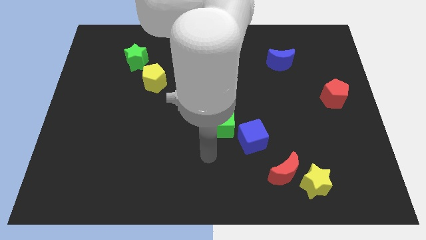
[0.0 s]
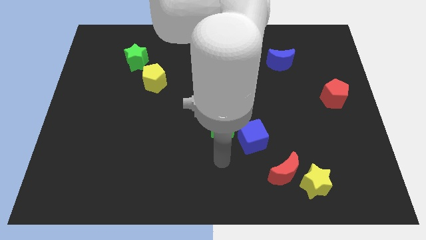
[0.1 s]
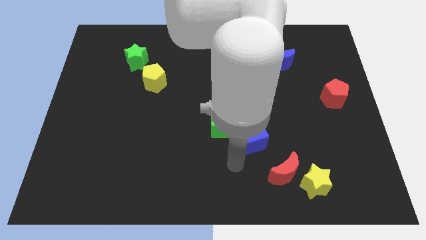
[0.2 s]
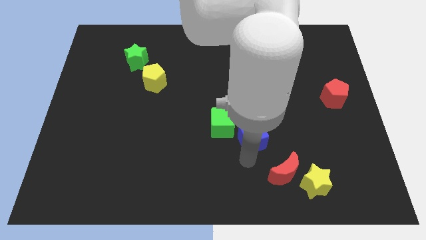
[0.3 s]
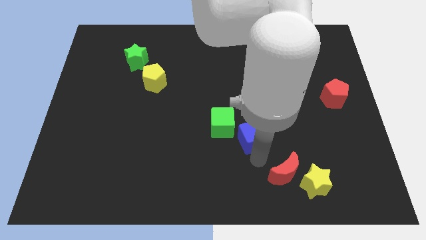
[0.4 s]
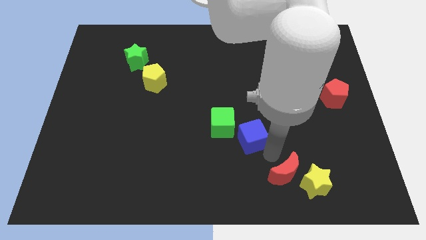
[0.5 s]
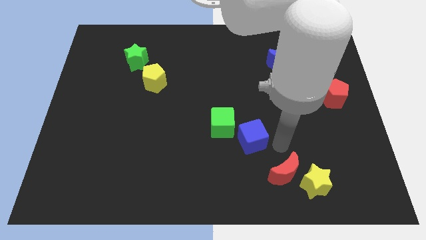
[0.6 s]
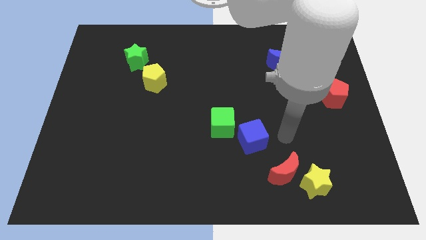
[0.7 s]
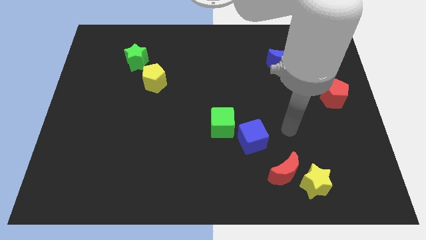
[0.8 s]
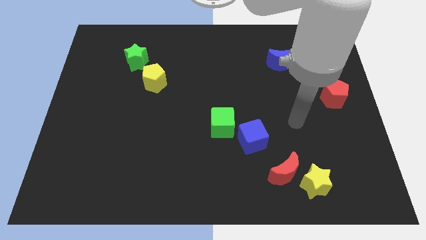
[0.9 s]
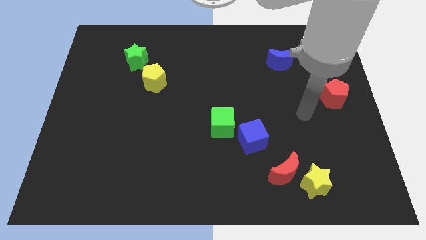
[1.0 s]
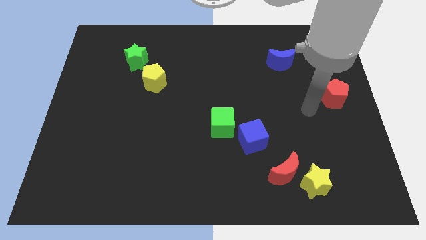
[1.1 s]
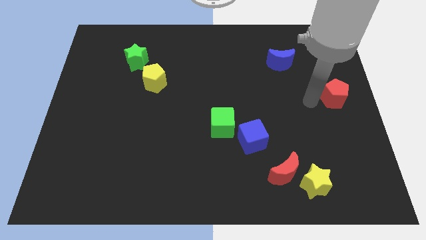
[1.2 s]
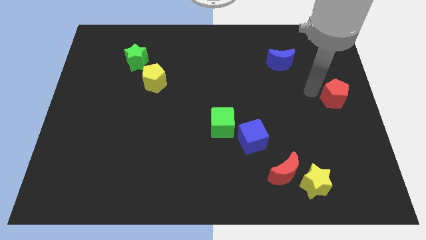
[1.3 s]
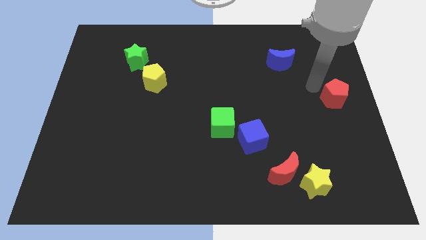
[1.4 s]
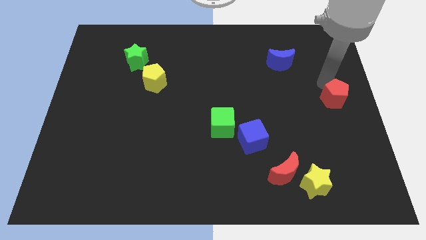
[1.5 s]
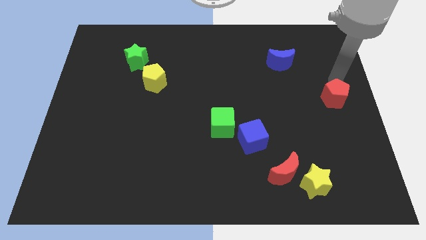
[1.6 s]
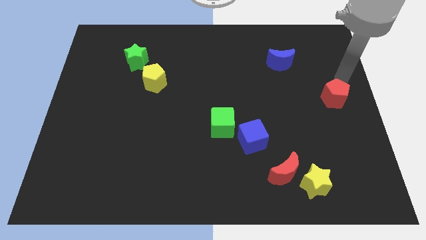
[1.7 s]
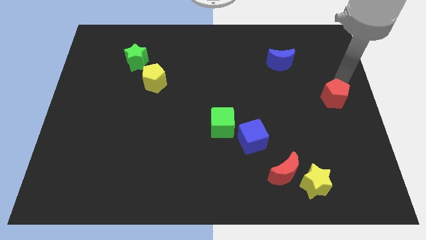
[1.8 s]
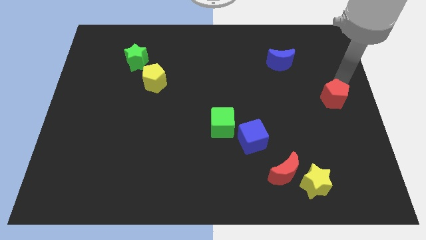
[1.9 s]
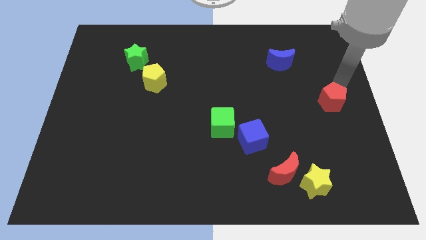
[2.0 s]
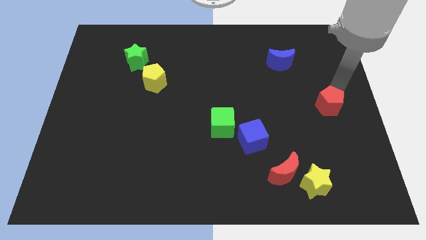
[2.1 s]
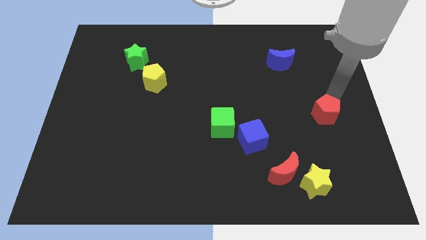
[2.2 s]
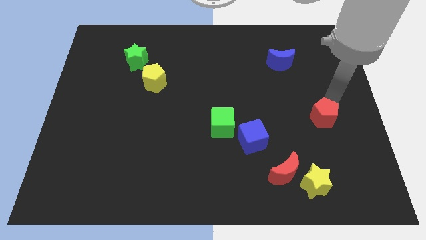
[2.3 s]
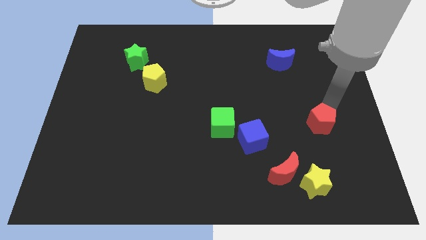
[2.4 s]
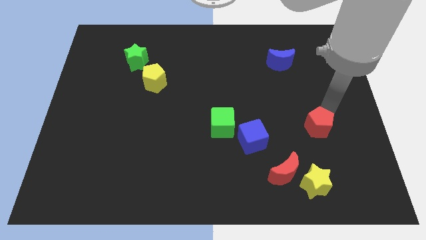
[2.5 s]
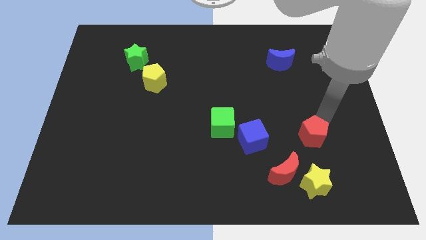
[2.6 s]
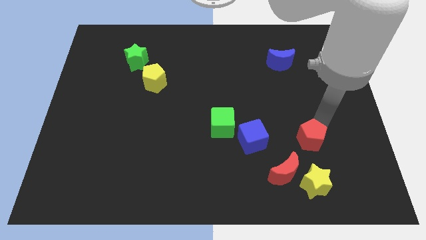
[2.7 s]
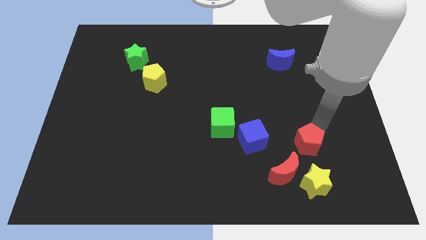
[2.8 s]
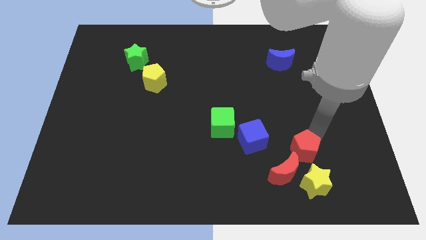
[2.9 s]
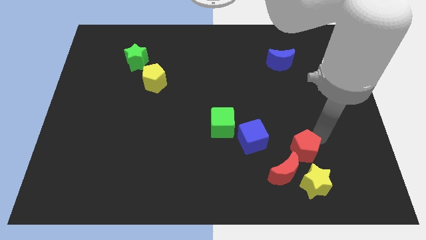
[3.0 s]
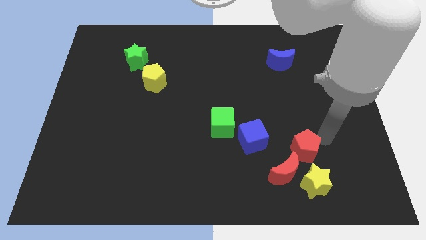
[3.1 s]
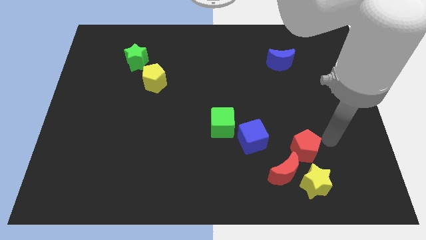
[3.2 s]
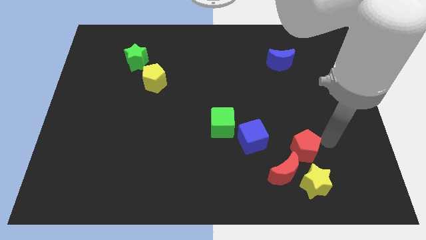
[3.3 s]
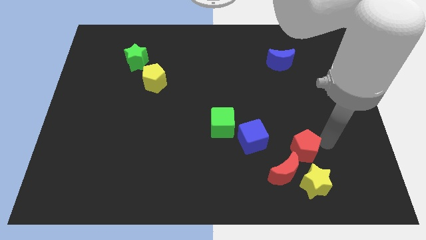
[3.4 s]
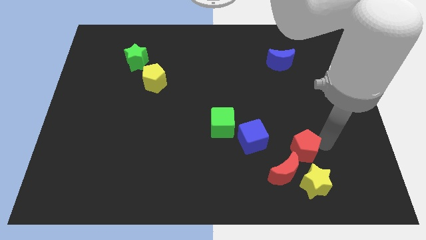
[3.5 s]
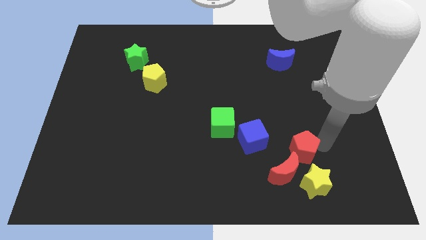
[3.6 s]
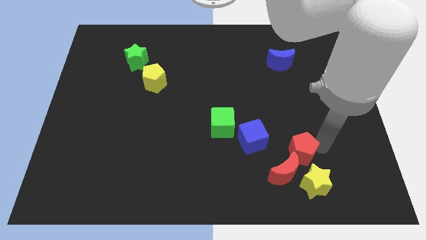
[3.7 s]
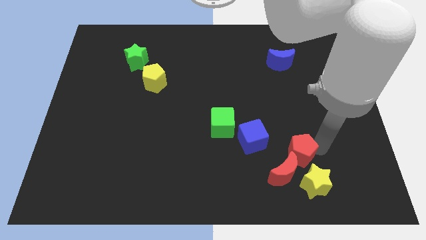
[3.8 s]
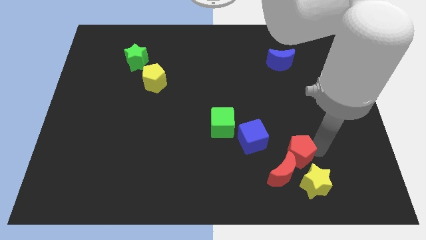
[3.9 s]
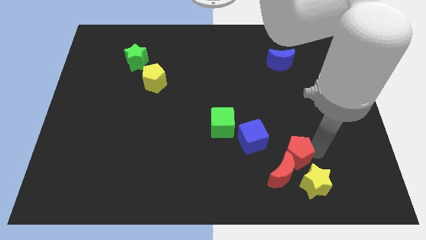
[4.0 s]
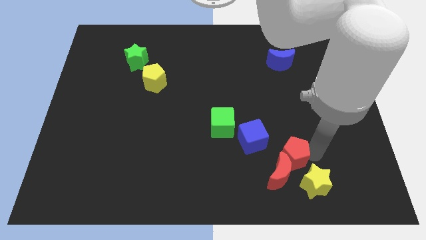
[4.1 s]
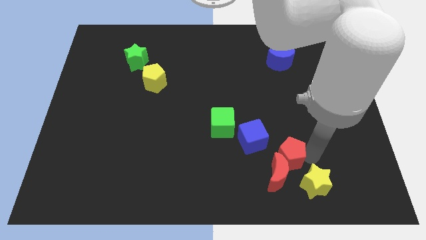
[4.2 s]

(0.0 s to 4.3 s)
slide the red pentagon down and left diagonally

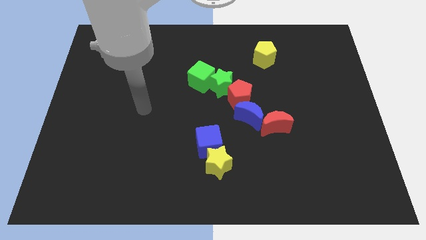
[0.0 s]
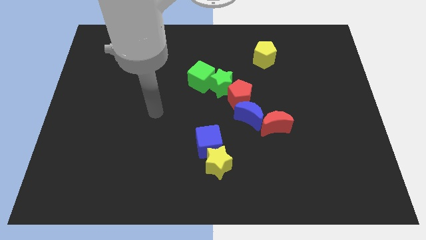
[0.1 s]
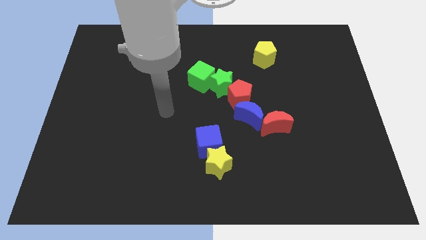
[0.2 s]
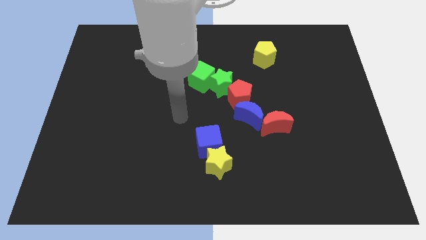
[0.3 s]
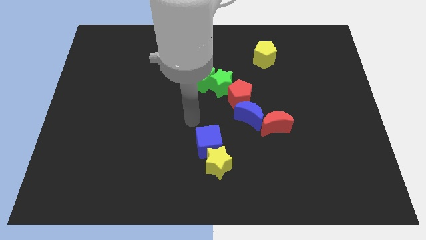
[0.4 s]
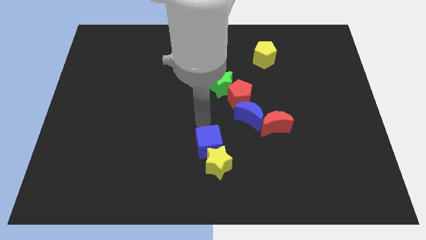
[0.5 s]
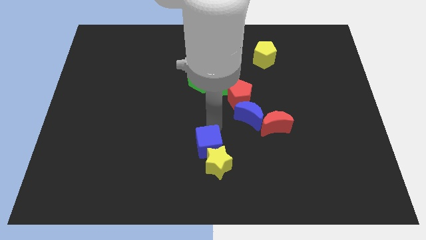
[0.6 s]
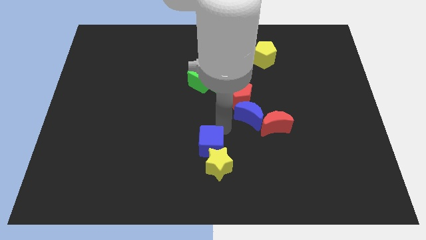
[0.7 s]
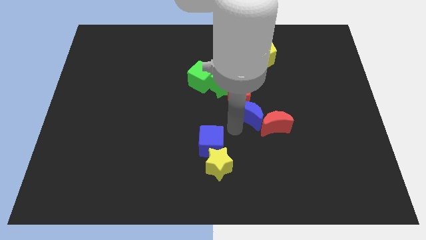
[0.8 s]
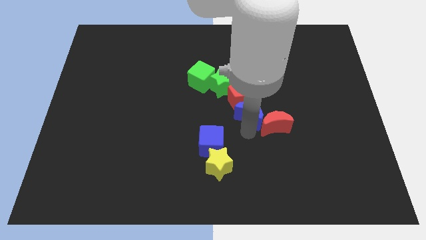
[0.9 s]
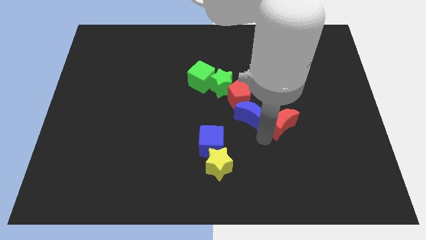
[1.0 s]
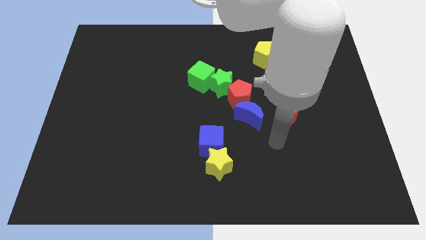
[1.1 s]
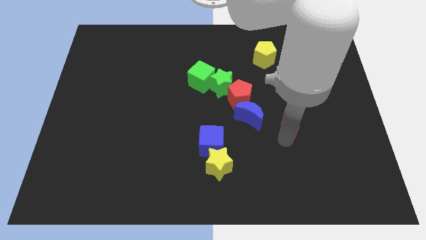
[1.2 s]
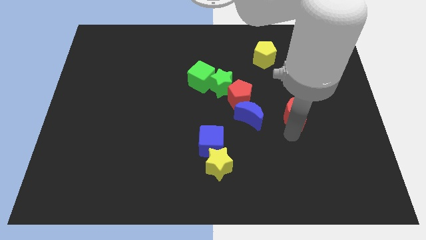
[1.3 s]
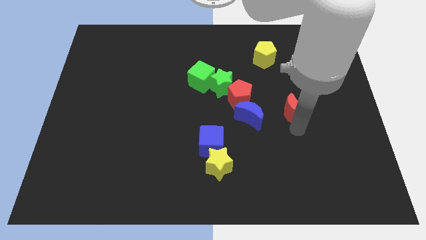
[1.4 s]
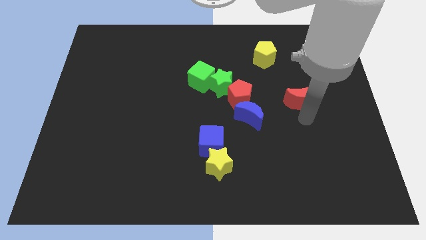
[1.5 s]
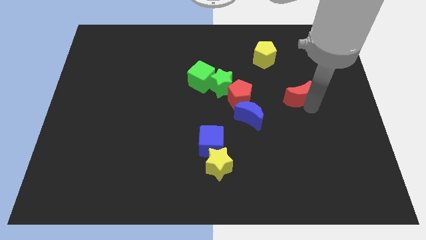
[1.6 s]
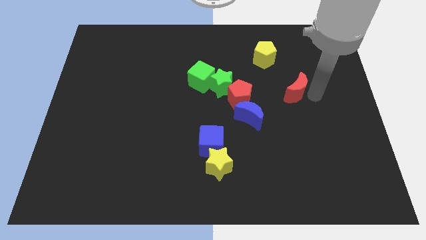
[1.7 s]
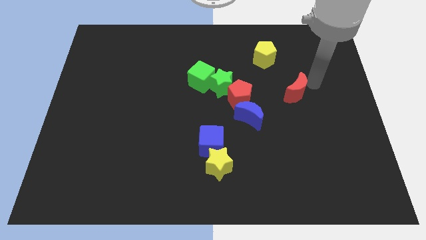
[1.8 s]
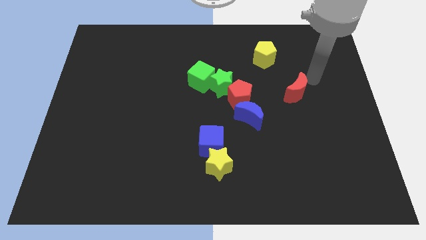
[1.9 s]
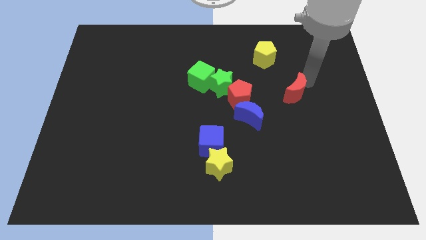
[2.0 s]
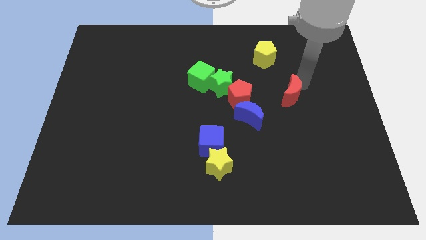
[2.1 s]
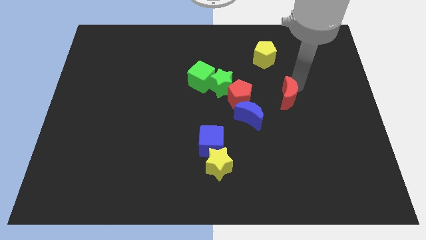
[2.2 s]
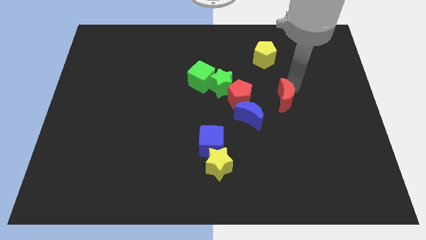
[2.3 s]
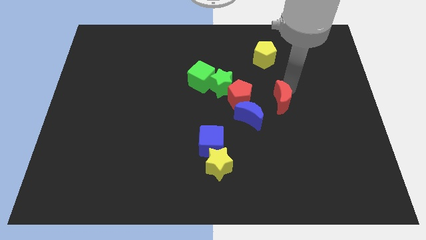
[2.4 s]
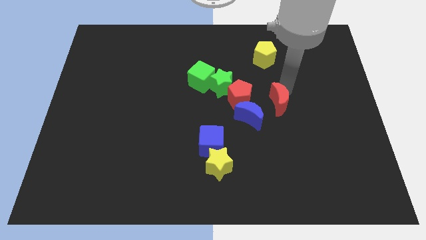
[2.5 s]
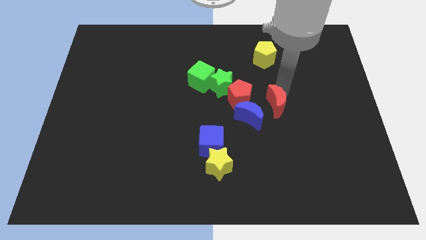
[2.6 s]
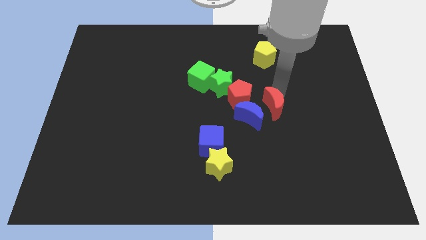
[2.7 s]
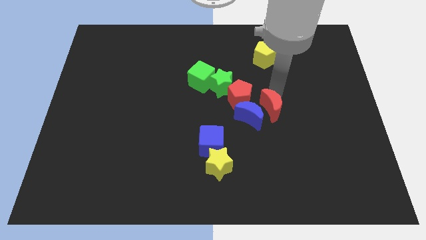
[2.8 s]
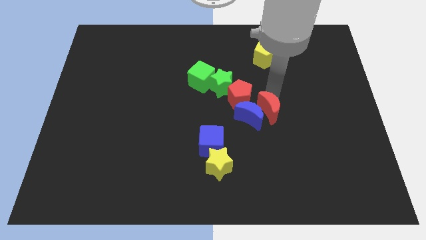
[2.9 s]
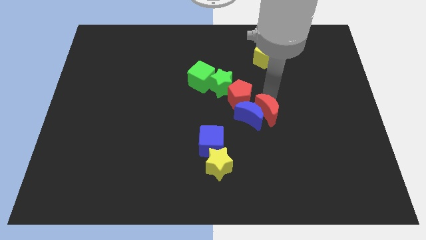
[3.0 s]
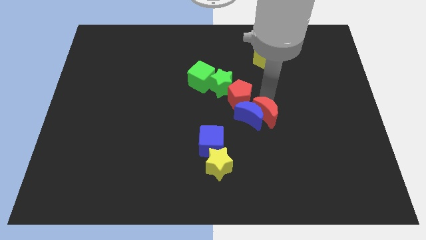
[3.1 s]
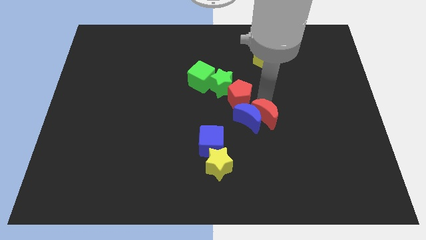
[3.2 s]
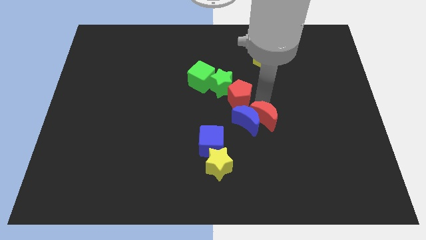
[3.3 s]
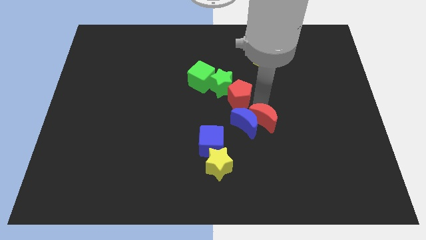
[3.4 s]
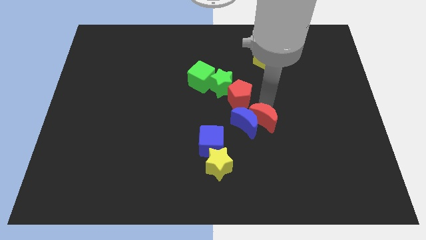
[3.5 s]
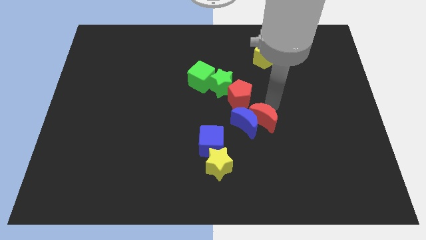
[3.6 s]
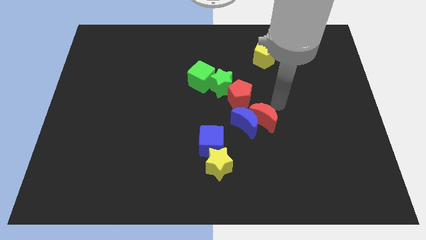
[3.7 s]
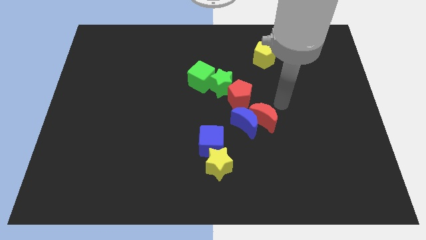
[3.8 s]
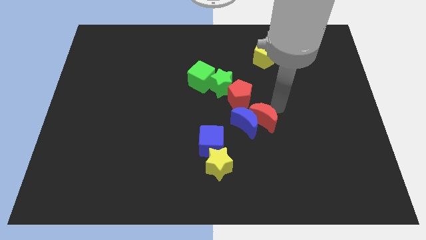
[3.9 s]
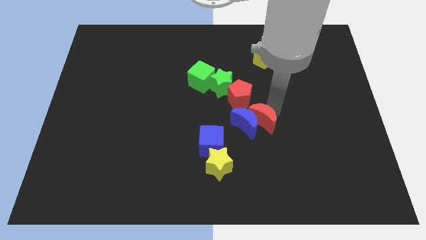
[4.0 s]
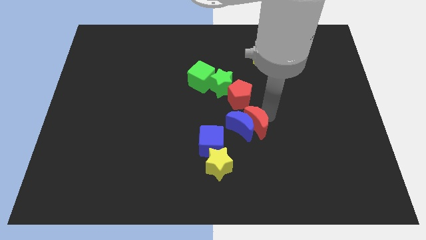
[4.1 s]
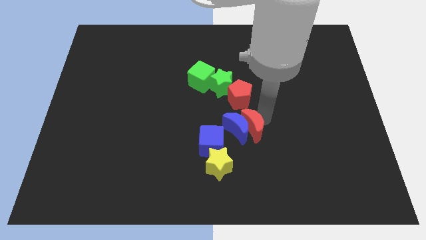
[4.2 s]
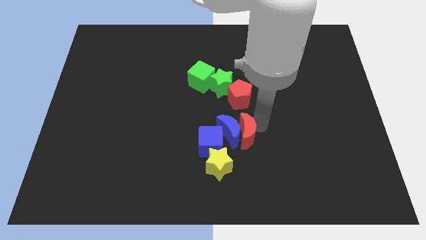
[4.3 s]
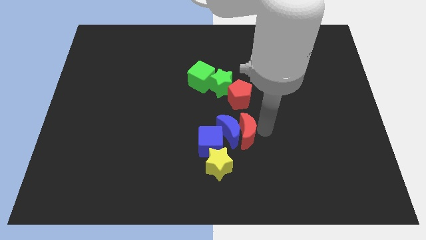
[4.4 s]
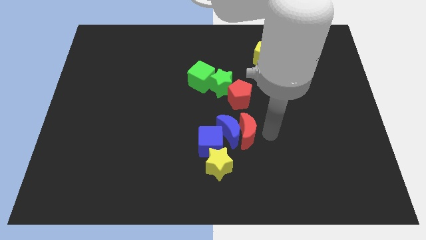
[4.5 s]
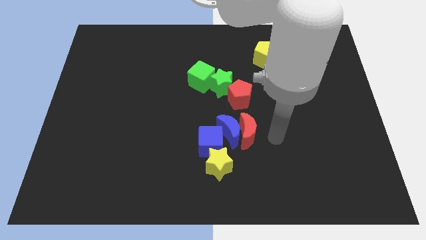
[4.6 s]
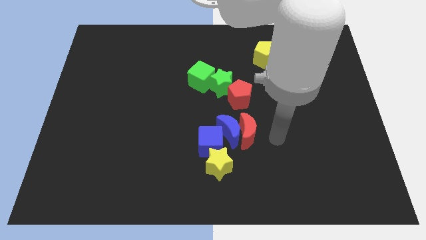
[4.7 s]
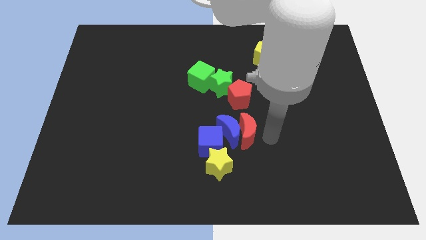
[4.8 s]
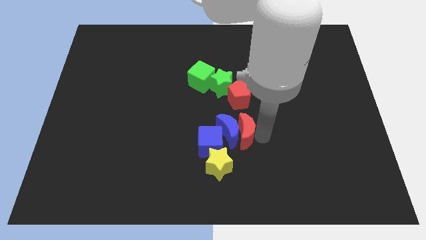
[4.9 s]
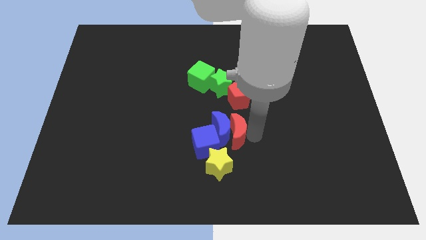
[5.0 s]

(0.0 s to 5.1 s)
slide the red moon to the left slightly
